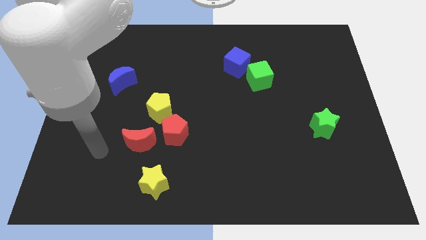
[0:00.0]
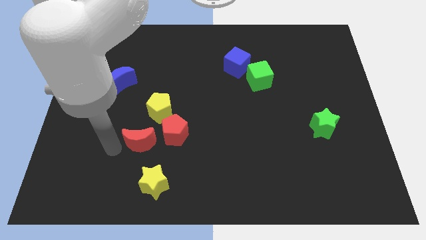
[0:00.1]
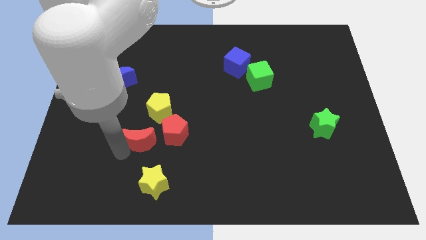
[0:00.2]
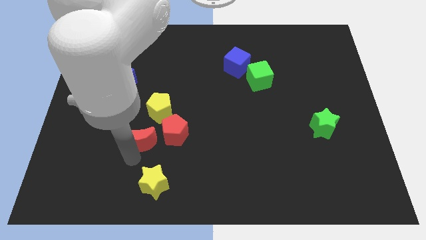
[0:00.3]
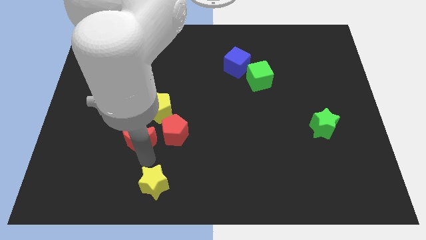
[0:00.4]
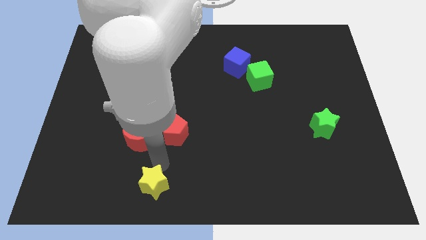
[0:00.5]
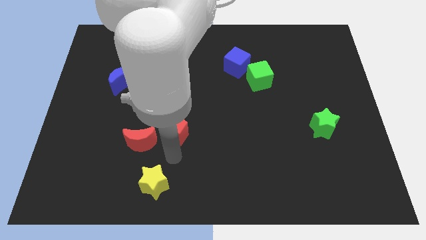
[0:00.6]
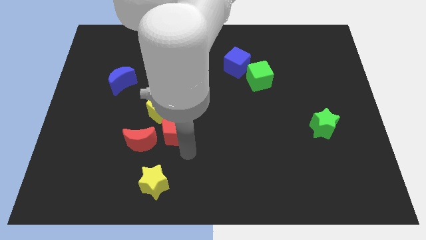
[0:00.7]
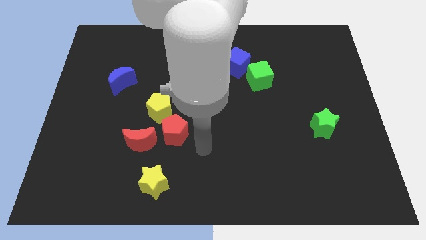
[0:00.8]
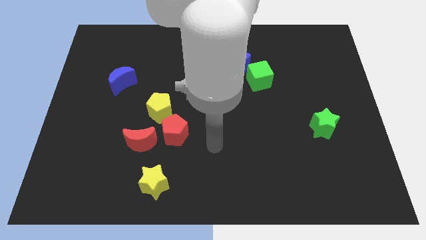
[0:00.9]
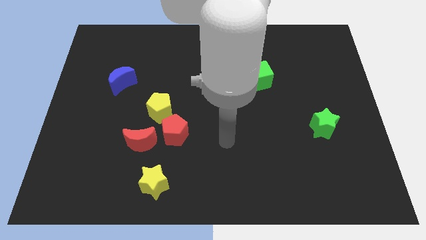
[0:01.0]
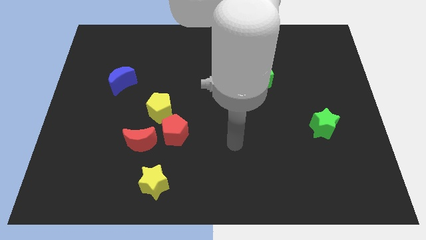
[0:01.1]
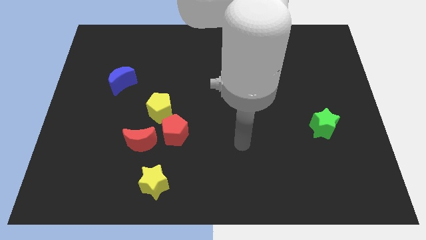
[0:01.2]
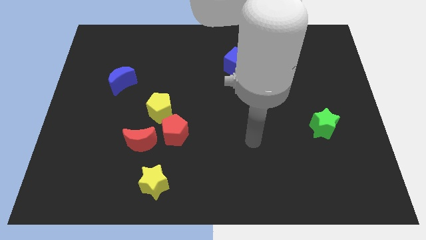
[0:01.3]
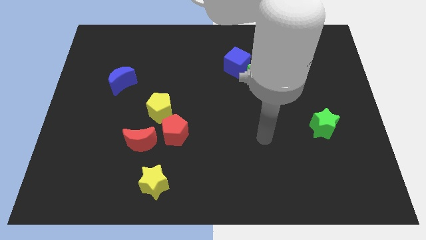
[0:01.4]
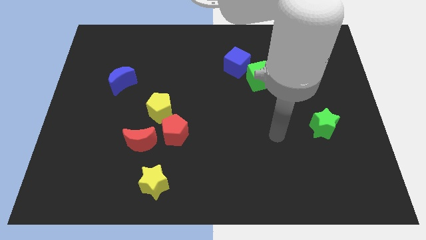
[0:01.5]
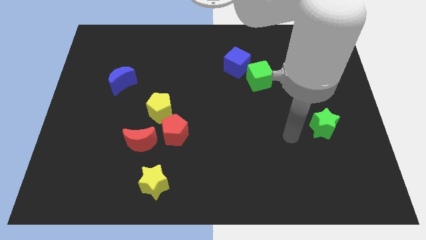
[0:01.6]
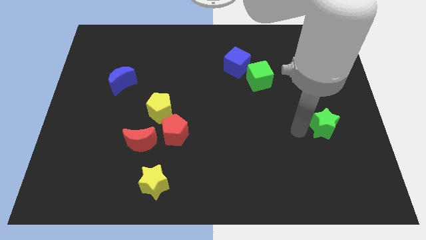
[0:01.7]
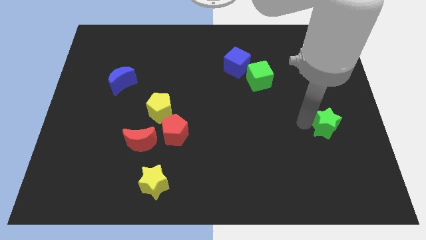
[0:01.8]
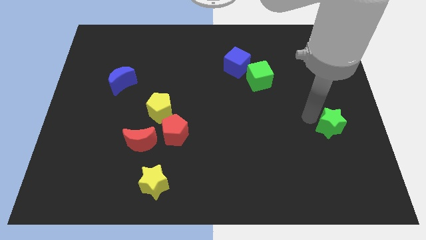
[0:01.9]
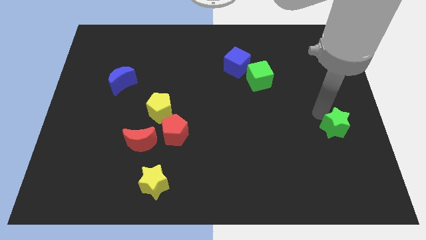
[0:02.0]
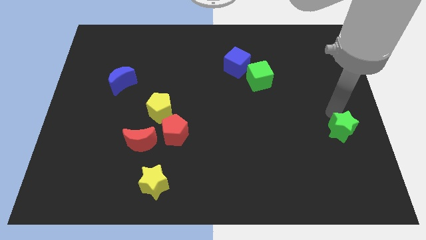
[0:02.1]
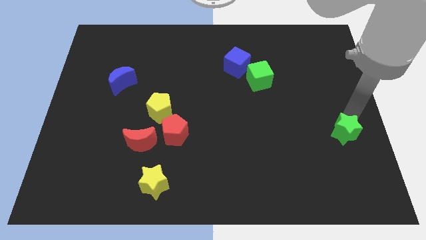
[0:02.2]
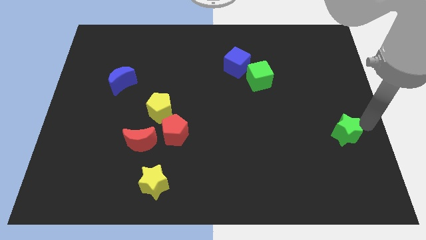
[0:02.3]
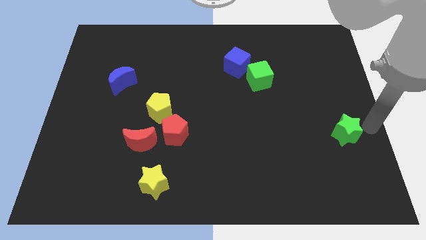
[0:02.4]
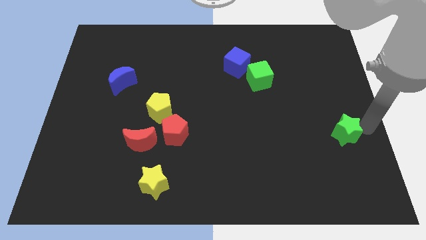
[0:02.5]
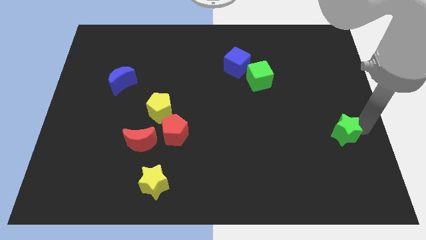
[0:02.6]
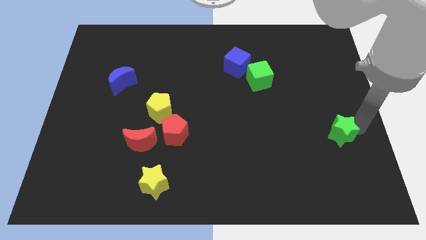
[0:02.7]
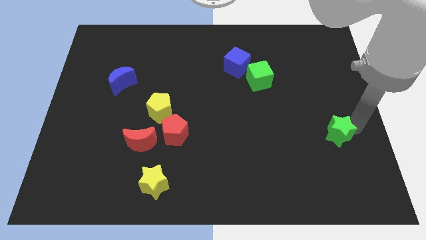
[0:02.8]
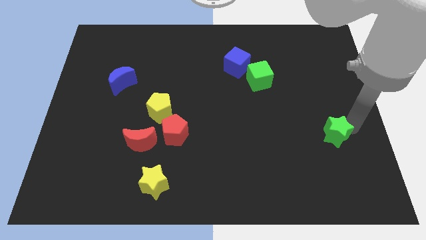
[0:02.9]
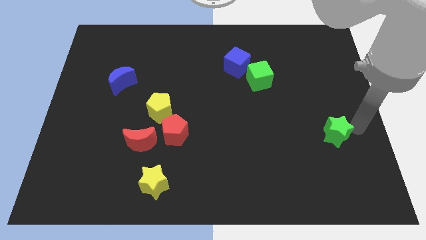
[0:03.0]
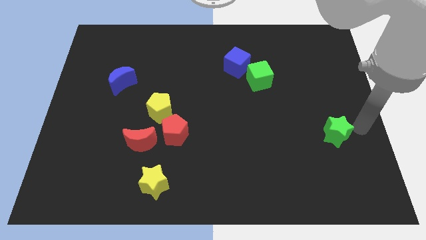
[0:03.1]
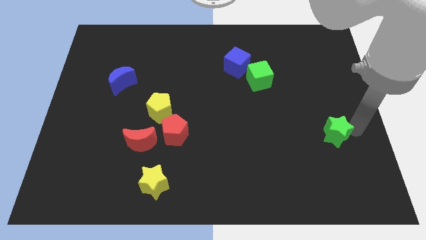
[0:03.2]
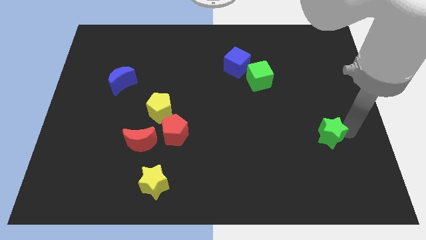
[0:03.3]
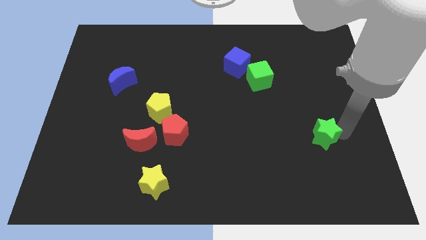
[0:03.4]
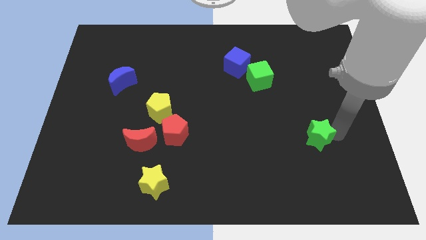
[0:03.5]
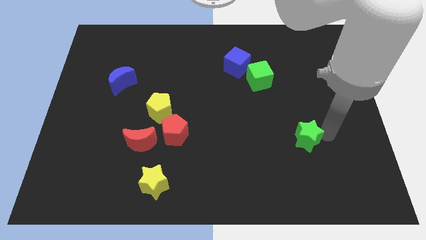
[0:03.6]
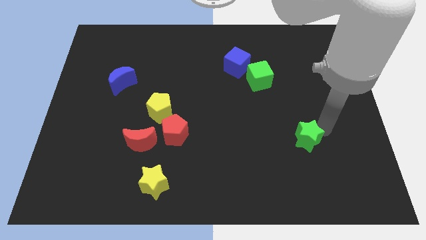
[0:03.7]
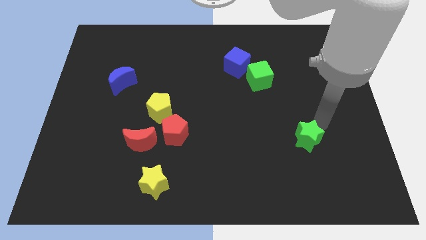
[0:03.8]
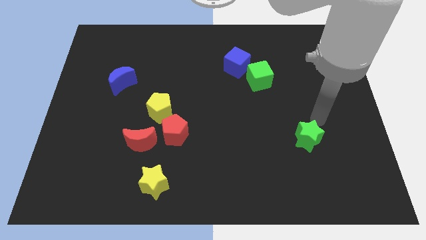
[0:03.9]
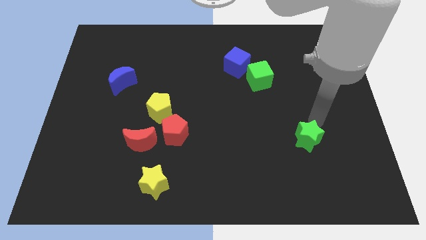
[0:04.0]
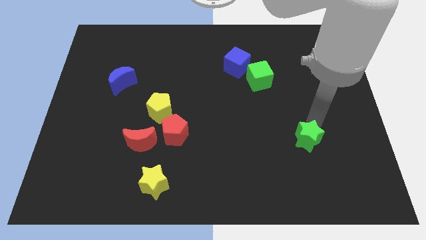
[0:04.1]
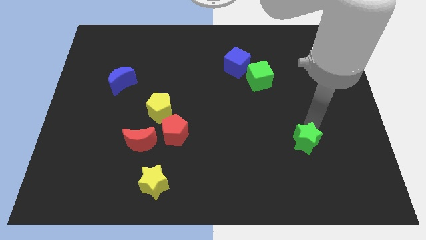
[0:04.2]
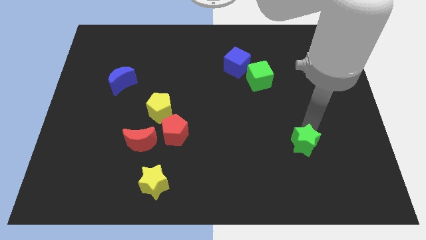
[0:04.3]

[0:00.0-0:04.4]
slide the green star slightly diagonally downwards and to the left

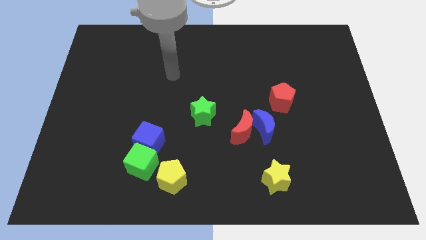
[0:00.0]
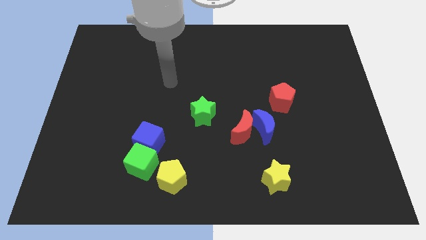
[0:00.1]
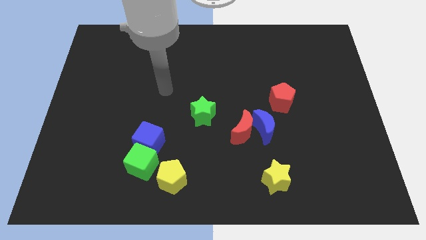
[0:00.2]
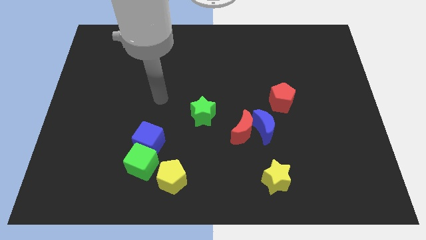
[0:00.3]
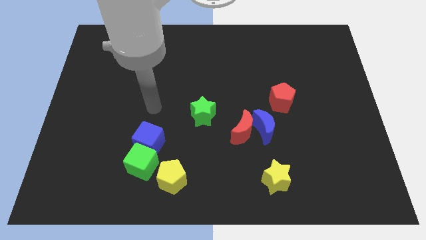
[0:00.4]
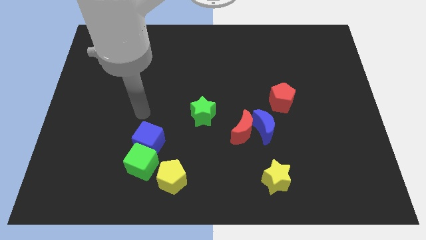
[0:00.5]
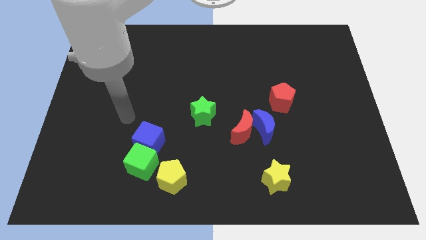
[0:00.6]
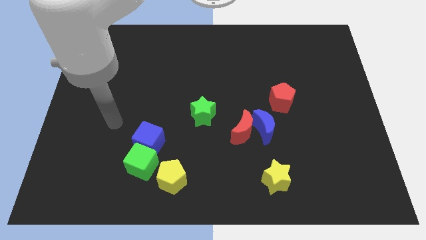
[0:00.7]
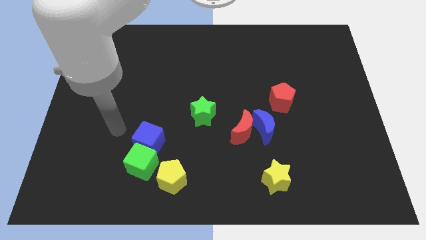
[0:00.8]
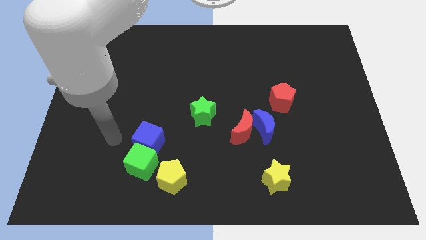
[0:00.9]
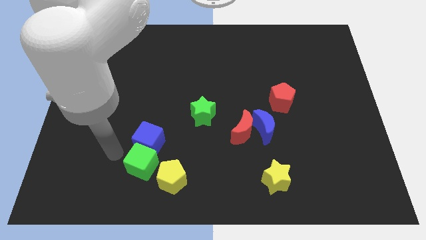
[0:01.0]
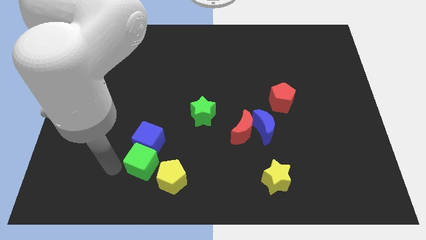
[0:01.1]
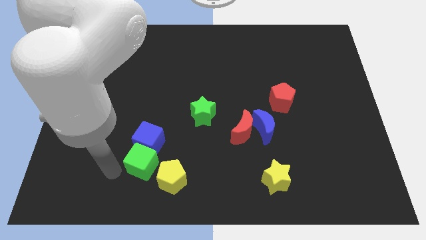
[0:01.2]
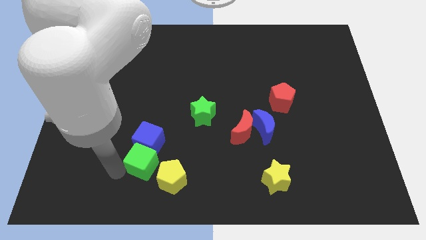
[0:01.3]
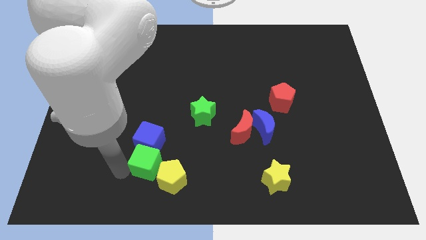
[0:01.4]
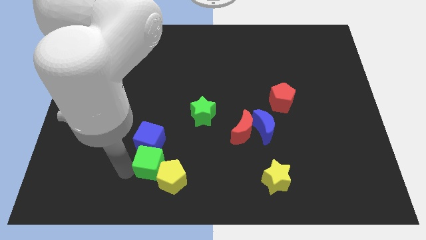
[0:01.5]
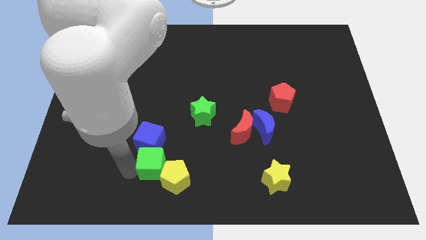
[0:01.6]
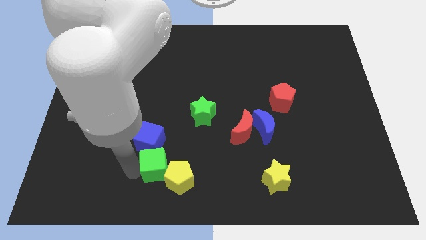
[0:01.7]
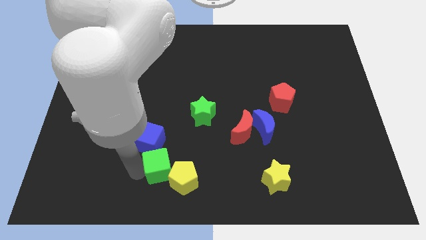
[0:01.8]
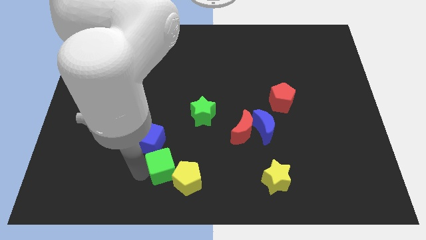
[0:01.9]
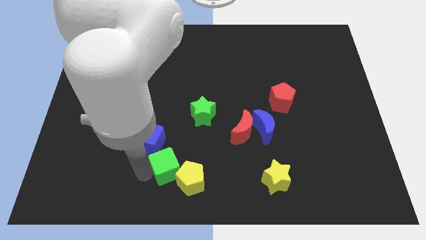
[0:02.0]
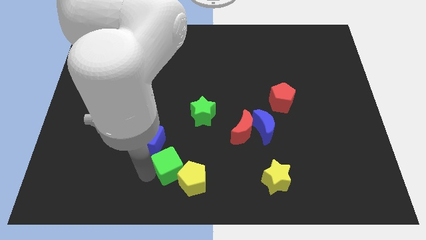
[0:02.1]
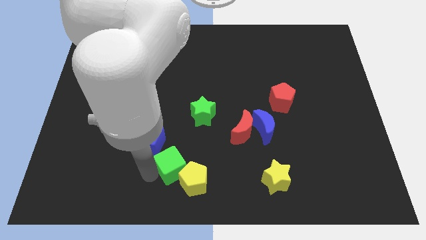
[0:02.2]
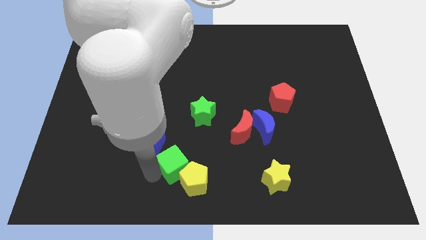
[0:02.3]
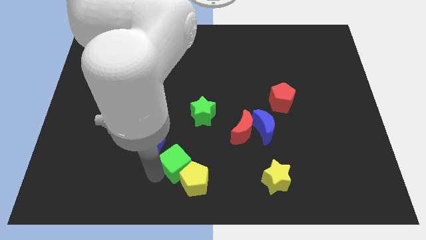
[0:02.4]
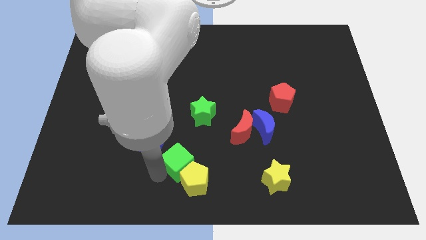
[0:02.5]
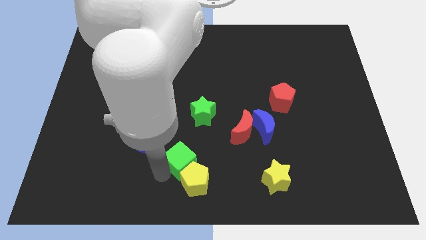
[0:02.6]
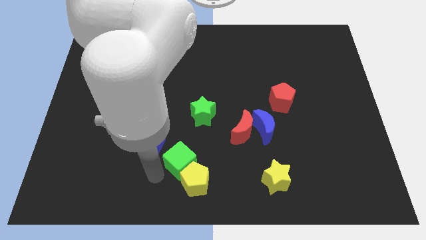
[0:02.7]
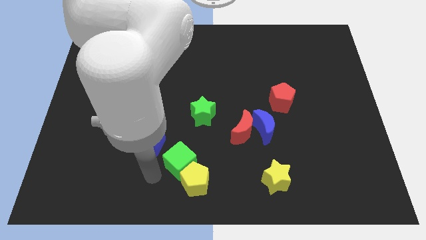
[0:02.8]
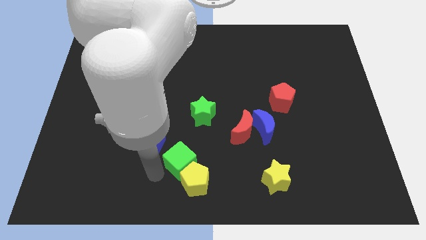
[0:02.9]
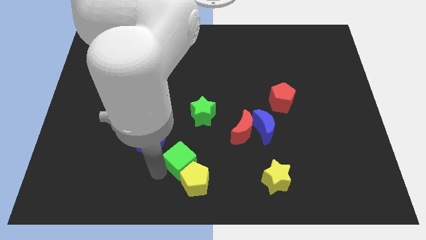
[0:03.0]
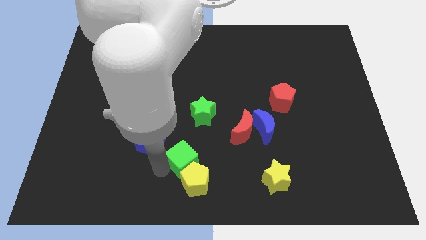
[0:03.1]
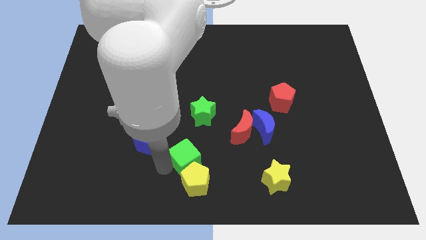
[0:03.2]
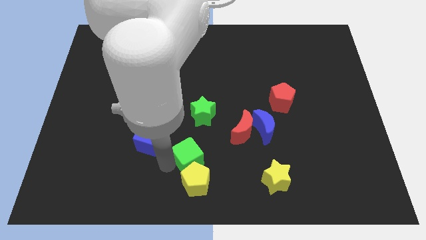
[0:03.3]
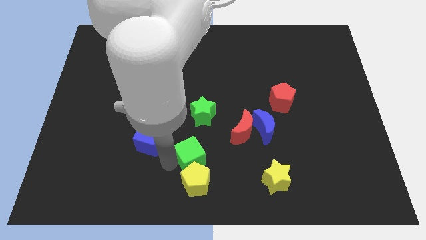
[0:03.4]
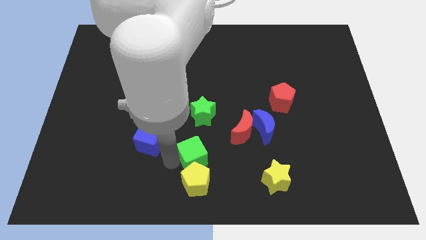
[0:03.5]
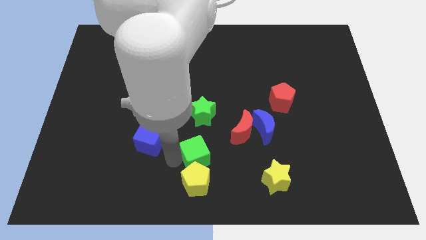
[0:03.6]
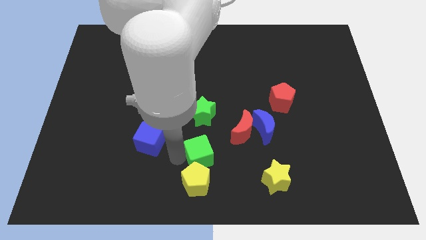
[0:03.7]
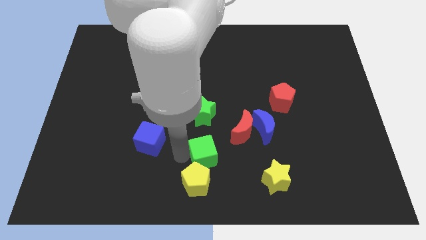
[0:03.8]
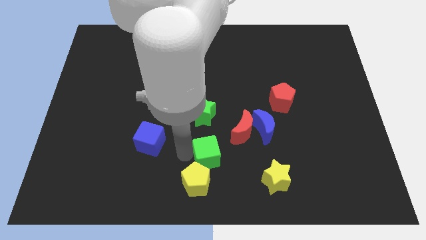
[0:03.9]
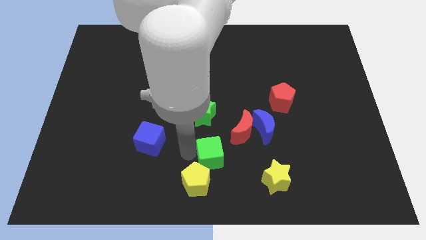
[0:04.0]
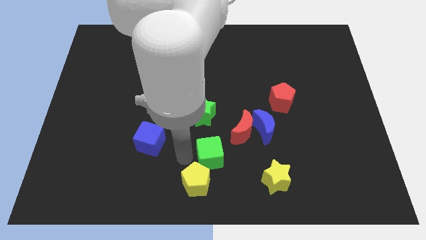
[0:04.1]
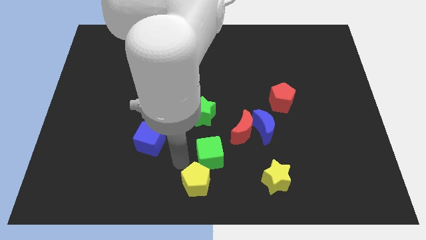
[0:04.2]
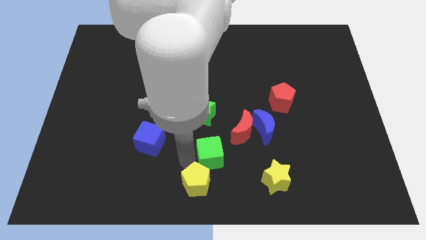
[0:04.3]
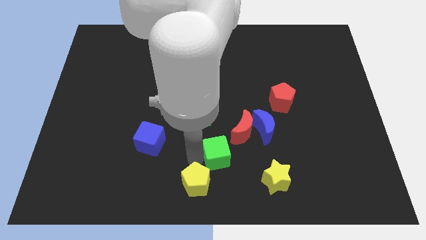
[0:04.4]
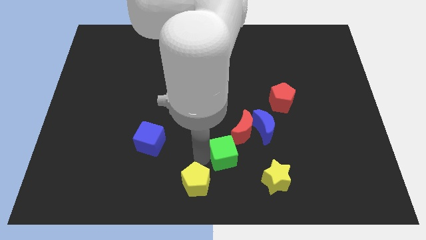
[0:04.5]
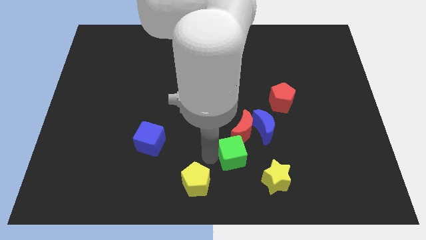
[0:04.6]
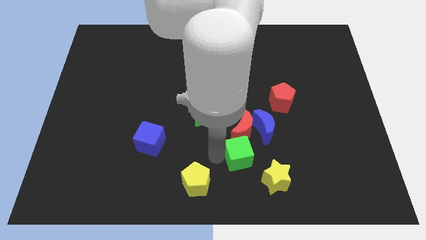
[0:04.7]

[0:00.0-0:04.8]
push the green cube to the right
